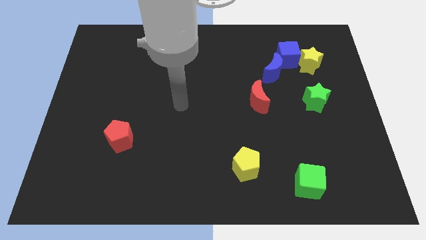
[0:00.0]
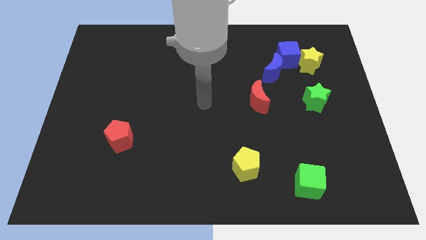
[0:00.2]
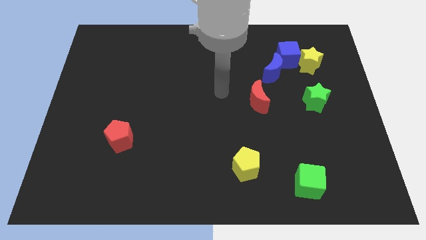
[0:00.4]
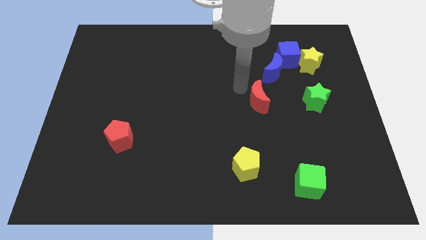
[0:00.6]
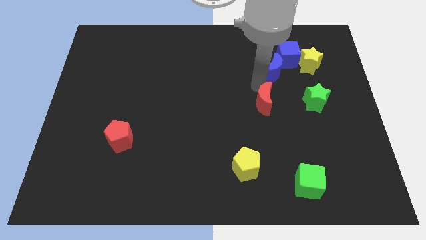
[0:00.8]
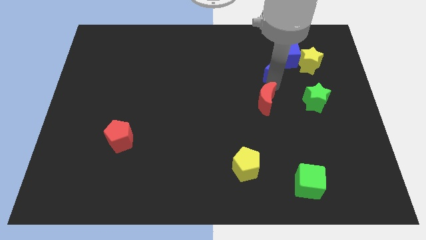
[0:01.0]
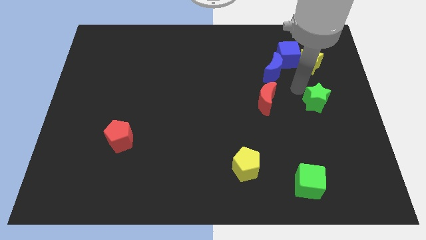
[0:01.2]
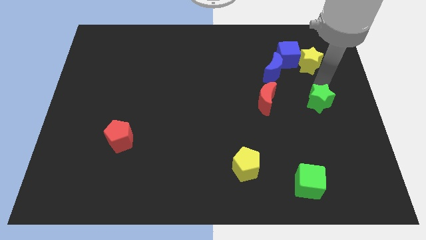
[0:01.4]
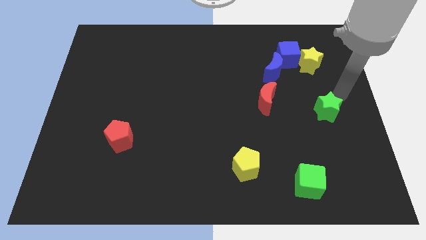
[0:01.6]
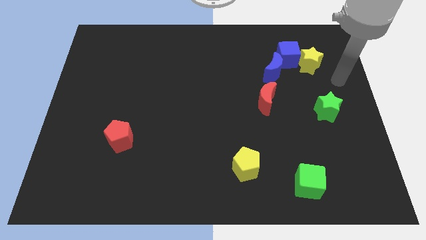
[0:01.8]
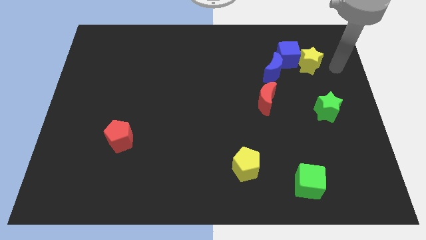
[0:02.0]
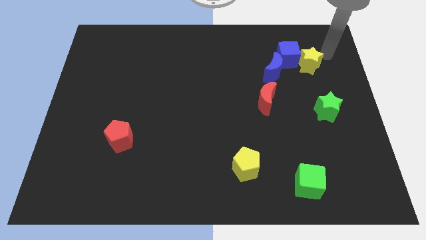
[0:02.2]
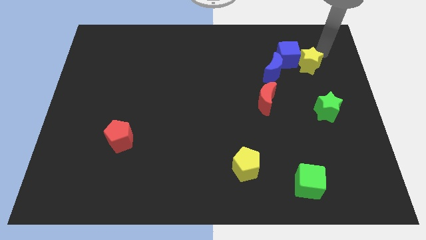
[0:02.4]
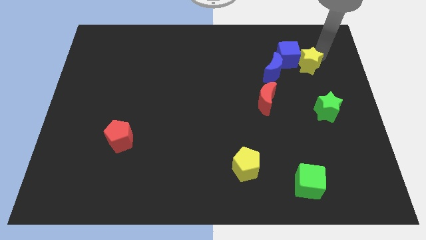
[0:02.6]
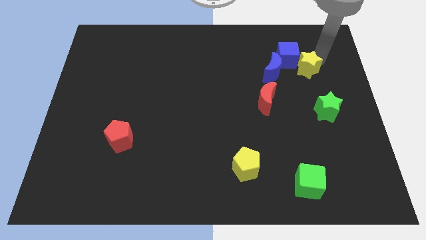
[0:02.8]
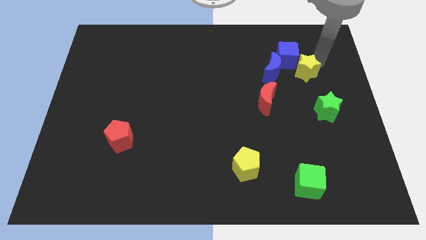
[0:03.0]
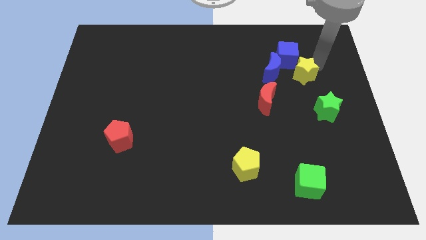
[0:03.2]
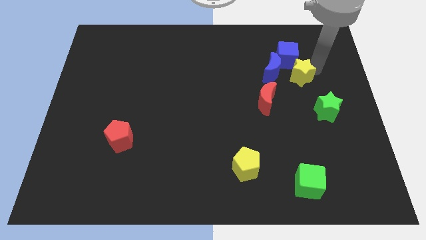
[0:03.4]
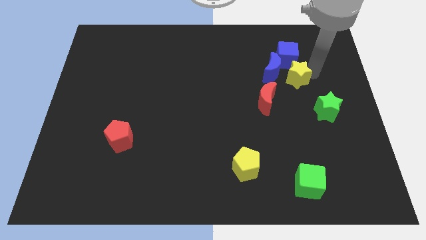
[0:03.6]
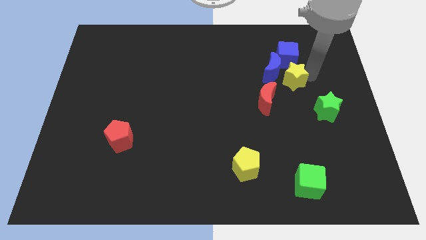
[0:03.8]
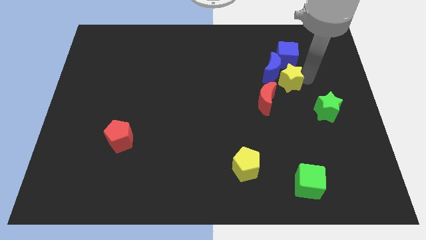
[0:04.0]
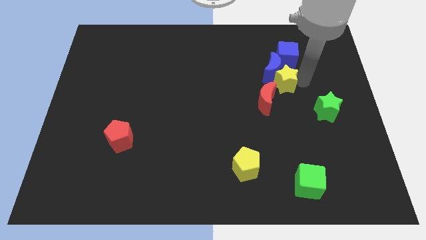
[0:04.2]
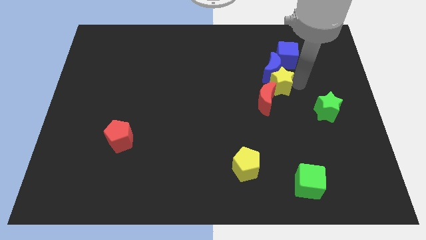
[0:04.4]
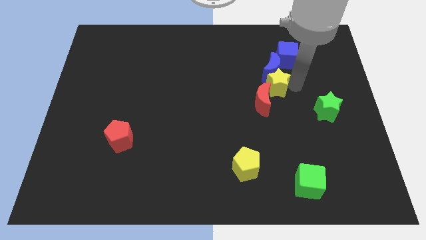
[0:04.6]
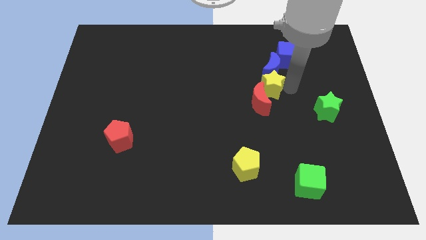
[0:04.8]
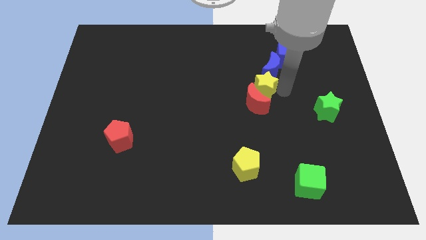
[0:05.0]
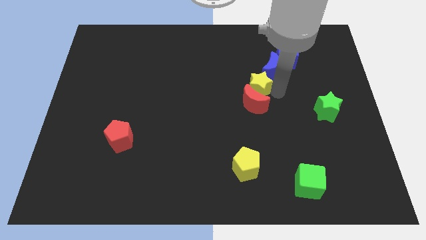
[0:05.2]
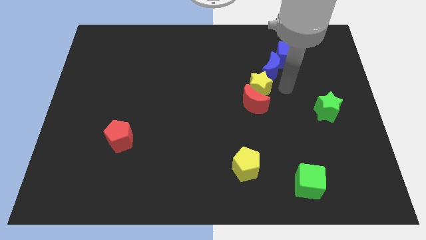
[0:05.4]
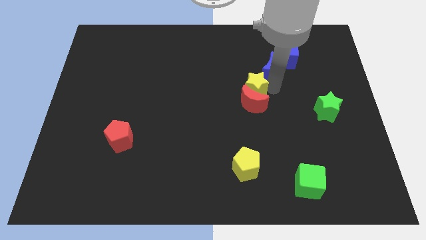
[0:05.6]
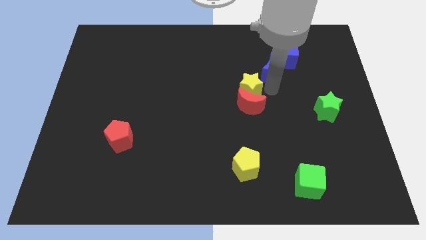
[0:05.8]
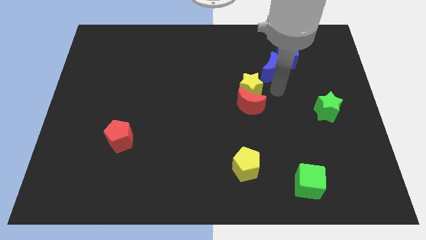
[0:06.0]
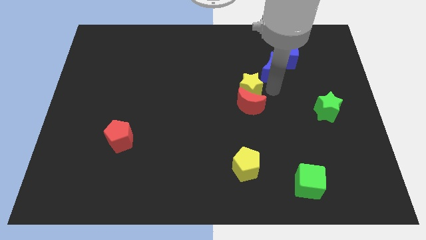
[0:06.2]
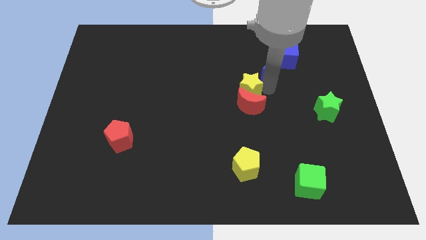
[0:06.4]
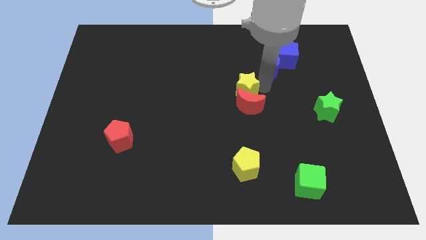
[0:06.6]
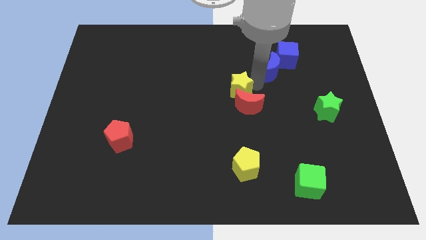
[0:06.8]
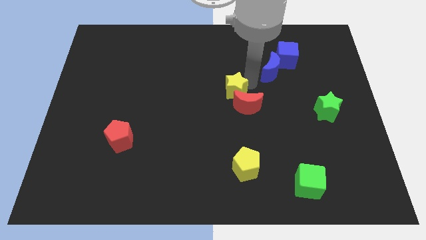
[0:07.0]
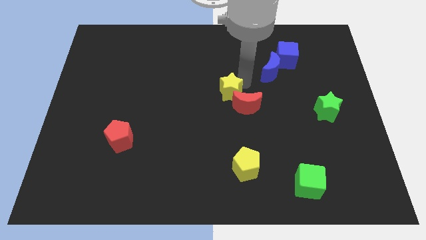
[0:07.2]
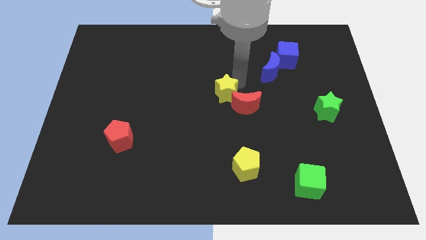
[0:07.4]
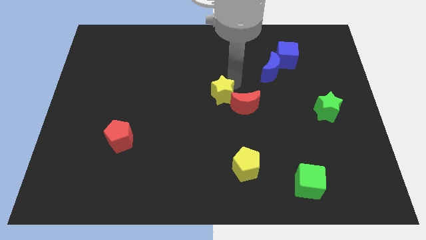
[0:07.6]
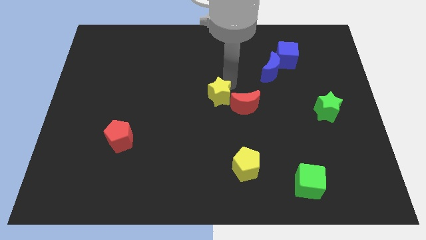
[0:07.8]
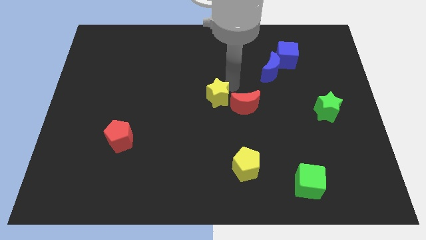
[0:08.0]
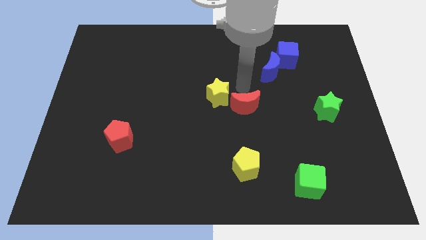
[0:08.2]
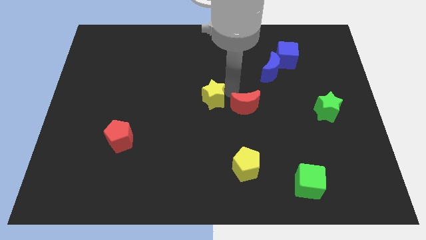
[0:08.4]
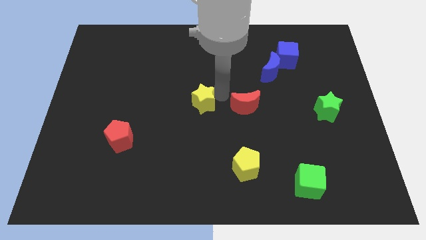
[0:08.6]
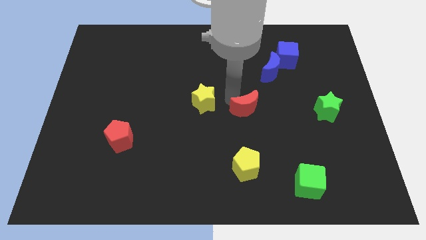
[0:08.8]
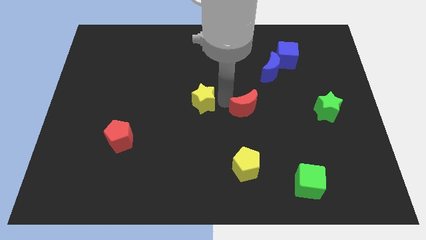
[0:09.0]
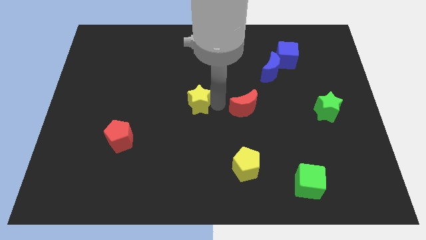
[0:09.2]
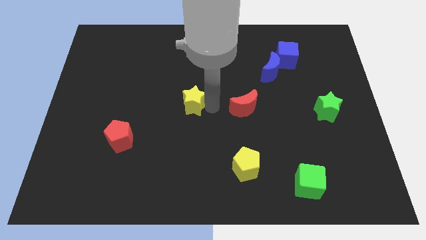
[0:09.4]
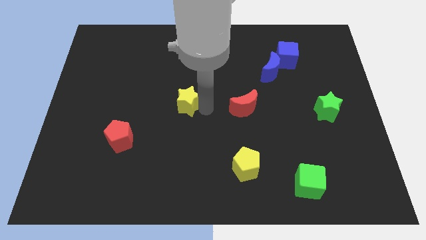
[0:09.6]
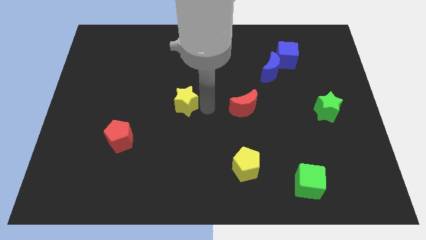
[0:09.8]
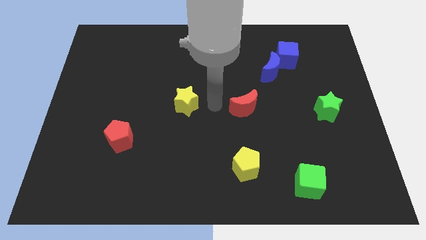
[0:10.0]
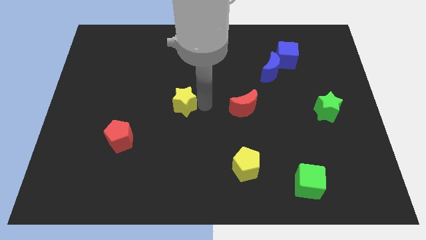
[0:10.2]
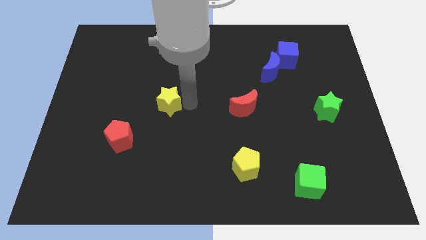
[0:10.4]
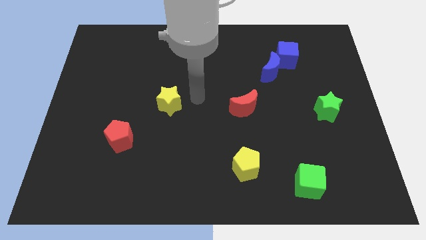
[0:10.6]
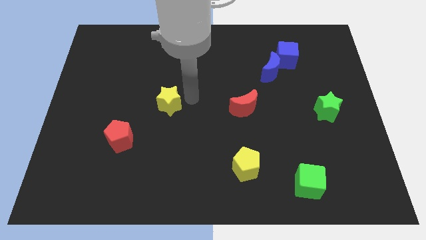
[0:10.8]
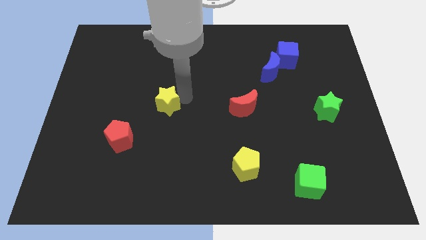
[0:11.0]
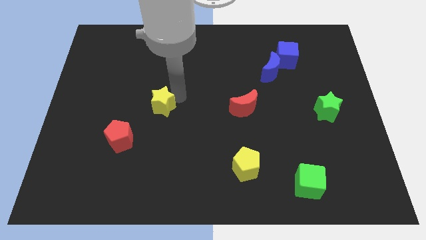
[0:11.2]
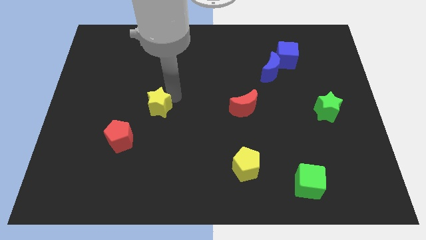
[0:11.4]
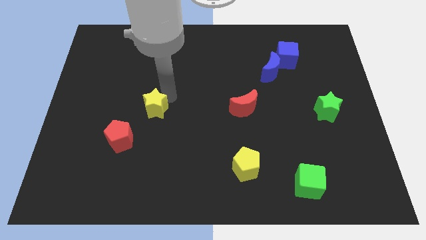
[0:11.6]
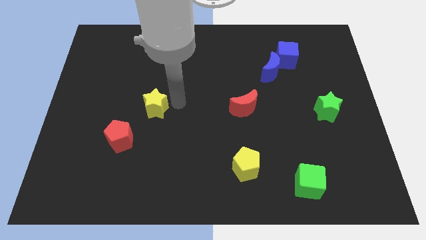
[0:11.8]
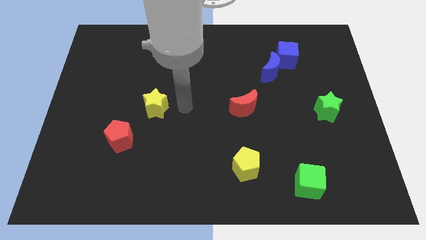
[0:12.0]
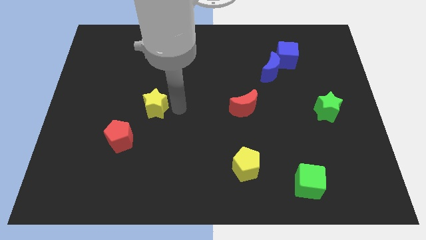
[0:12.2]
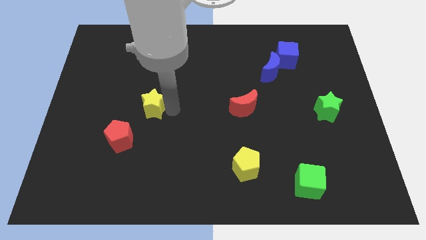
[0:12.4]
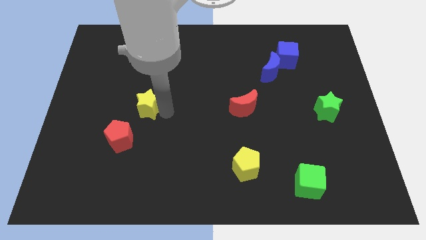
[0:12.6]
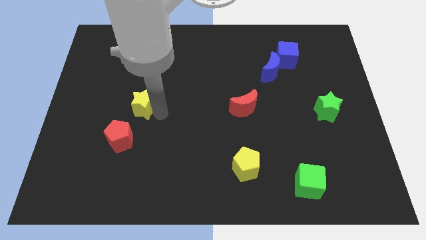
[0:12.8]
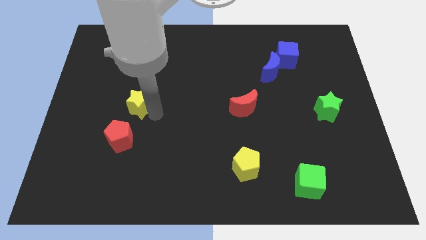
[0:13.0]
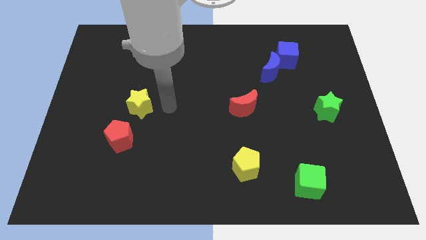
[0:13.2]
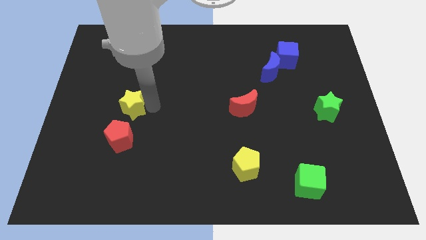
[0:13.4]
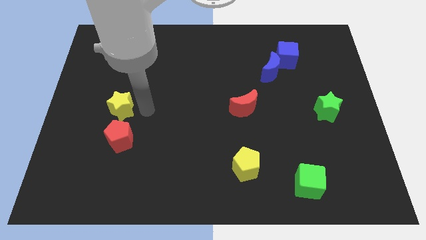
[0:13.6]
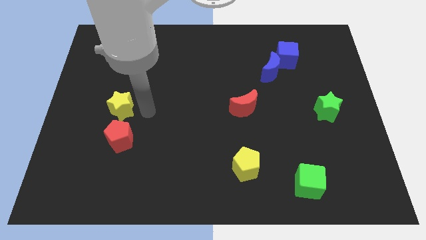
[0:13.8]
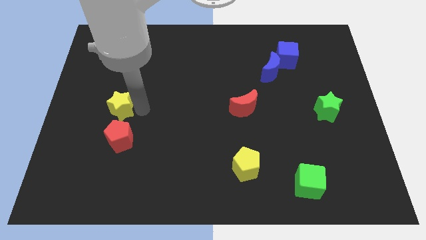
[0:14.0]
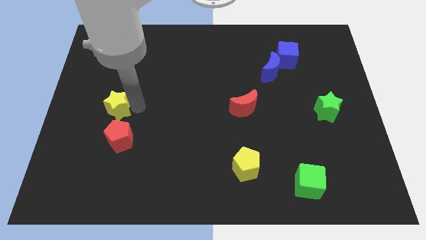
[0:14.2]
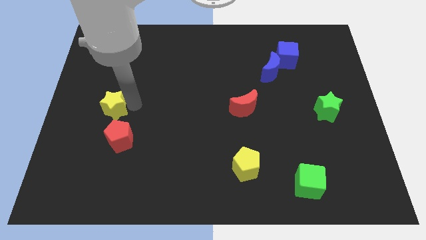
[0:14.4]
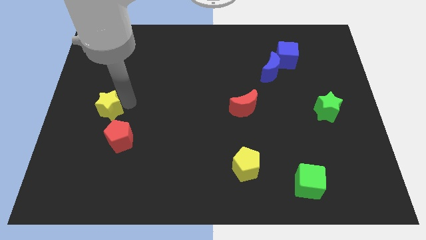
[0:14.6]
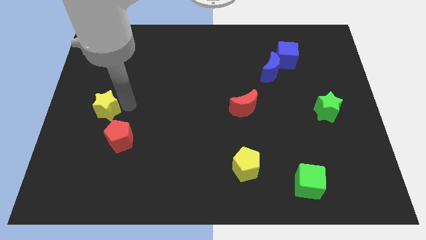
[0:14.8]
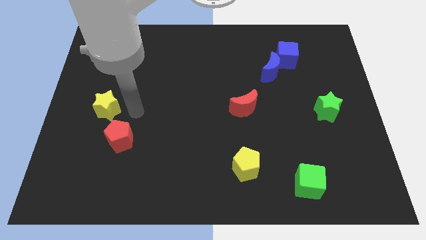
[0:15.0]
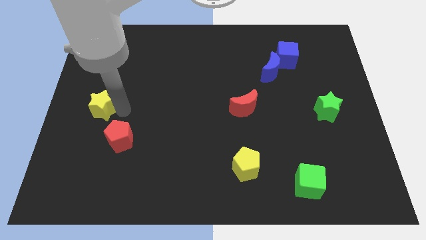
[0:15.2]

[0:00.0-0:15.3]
slide the yellow star to the left side of the board
